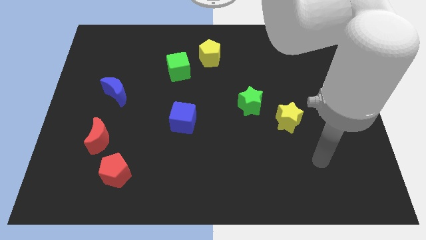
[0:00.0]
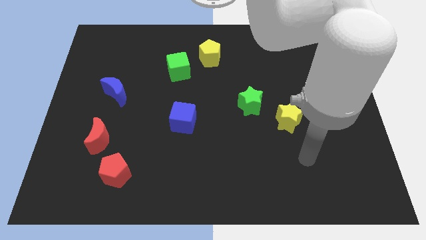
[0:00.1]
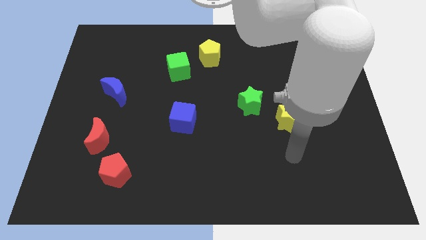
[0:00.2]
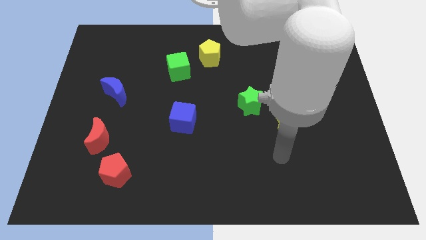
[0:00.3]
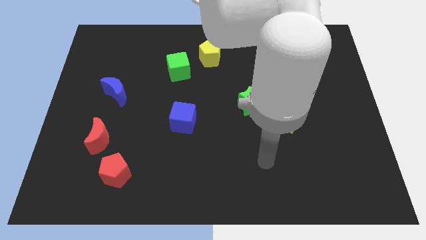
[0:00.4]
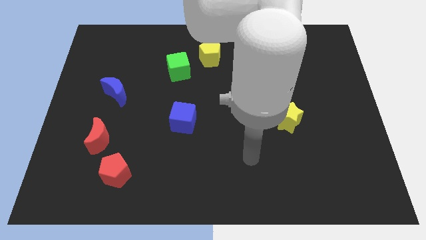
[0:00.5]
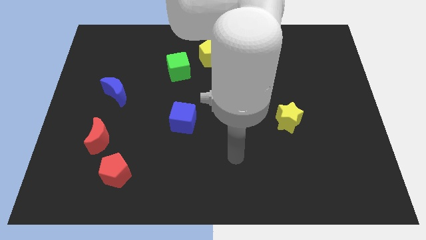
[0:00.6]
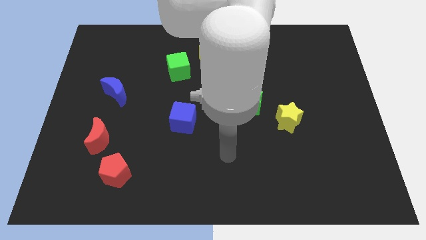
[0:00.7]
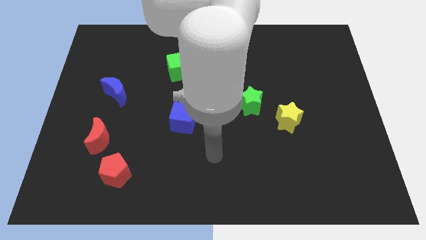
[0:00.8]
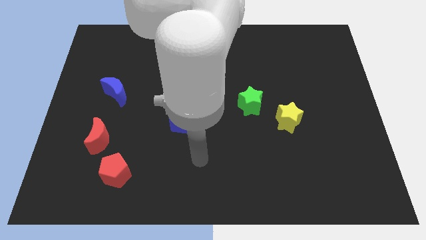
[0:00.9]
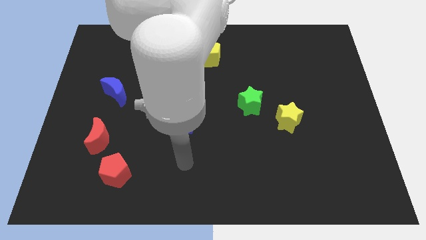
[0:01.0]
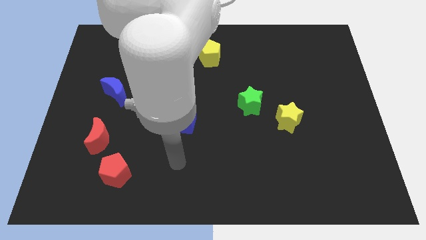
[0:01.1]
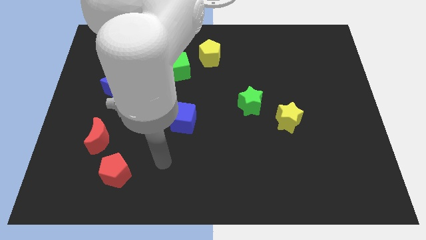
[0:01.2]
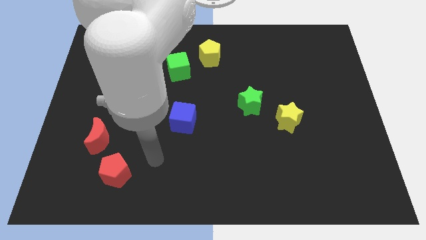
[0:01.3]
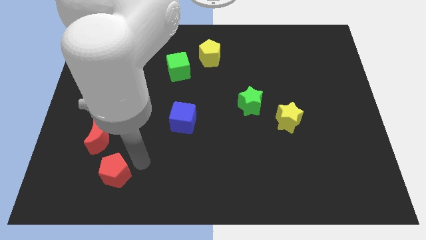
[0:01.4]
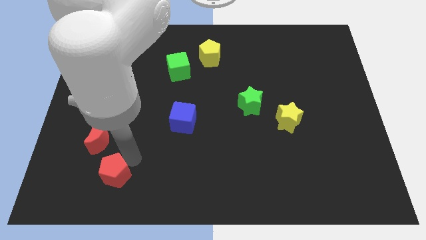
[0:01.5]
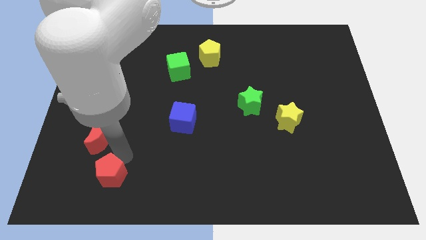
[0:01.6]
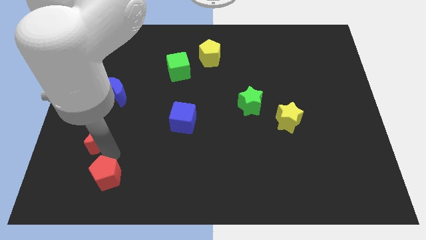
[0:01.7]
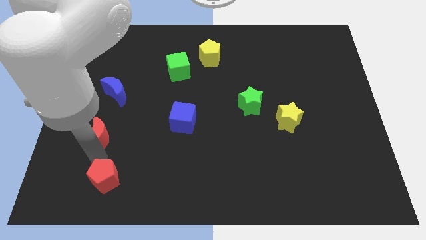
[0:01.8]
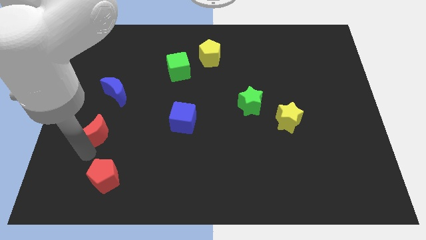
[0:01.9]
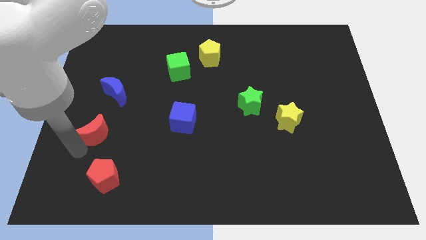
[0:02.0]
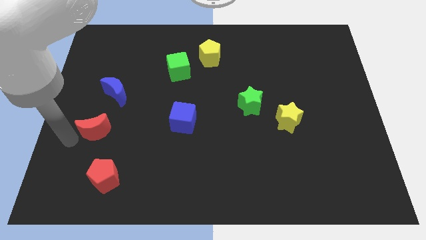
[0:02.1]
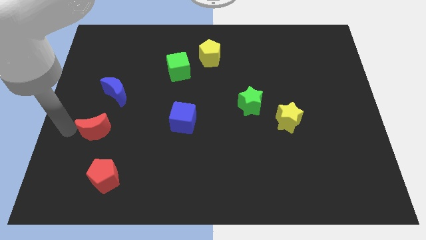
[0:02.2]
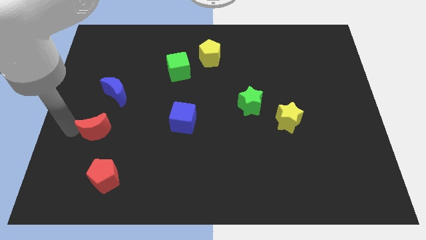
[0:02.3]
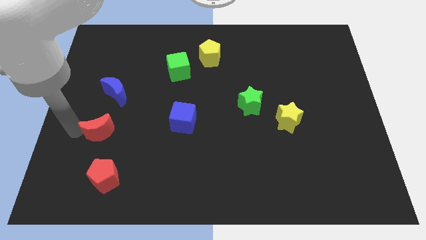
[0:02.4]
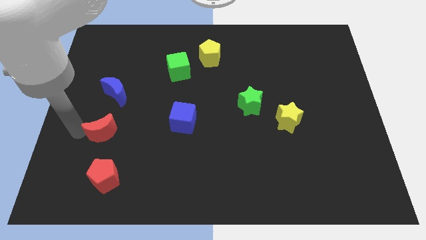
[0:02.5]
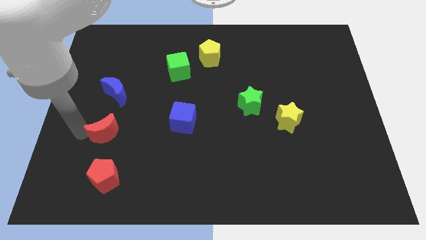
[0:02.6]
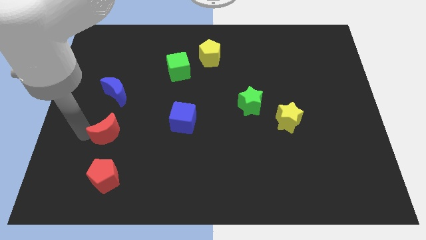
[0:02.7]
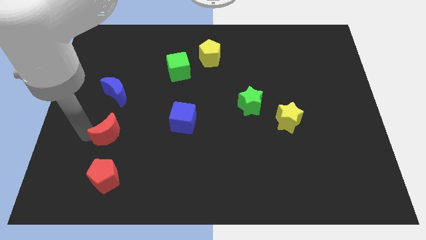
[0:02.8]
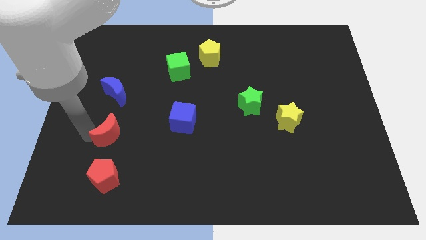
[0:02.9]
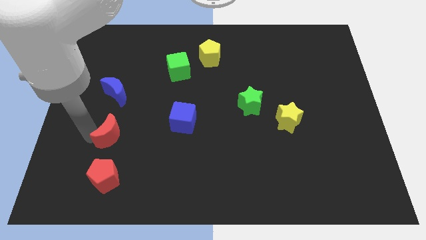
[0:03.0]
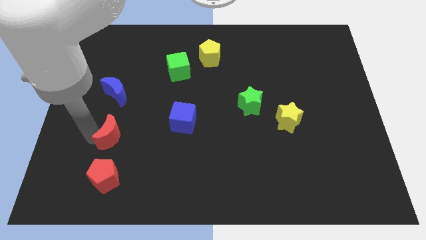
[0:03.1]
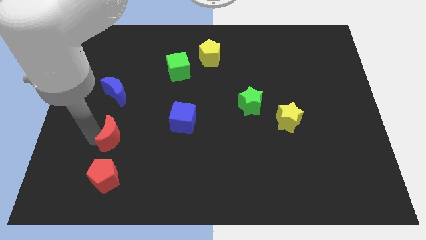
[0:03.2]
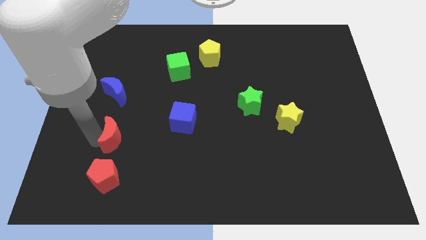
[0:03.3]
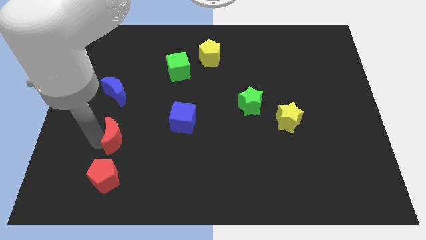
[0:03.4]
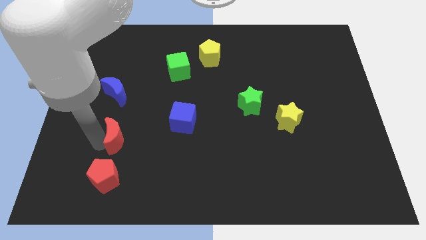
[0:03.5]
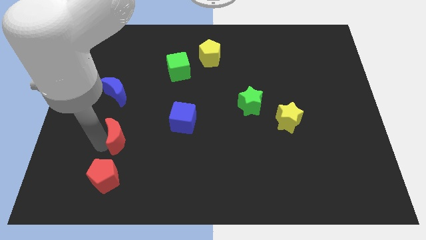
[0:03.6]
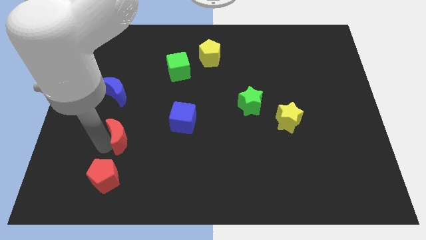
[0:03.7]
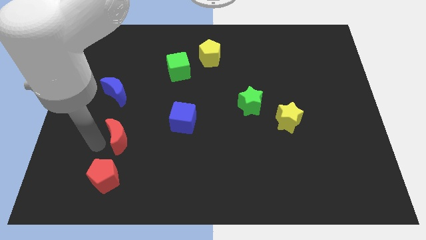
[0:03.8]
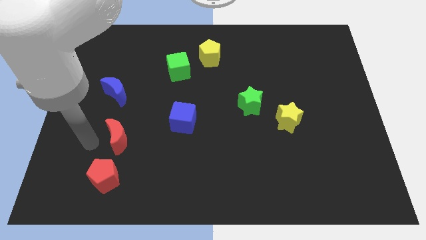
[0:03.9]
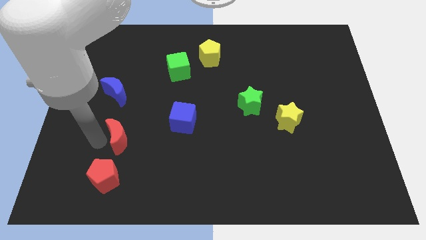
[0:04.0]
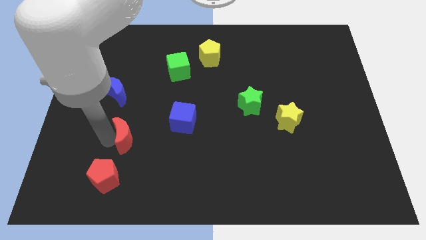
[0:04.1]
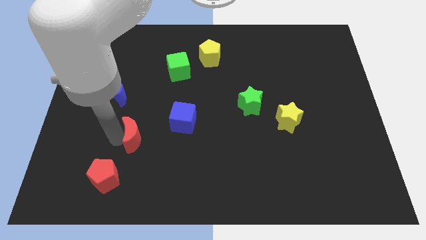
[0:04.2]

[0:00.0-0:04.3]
move the red moon a little bit to the right

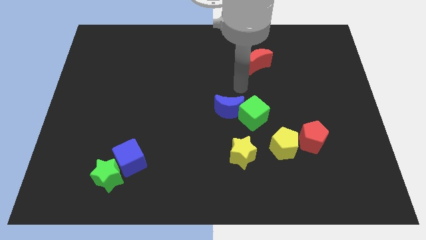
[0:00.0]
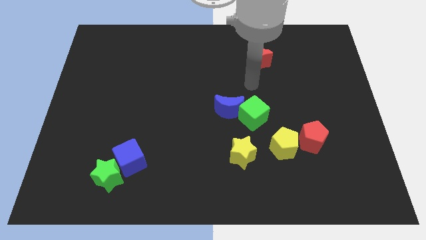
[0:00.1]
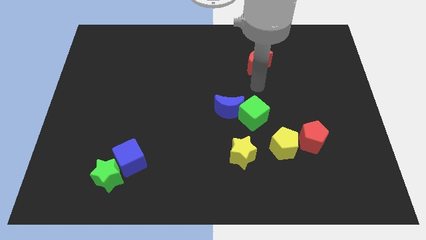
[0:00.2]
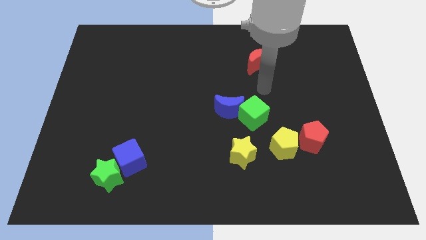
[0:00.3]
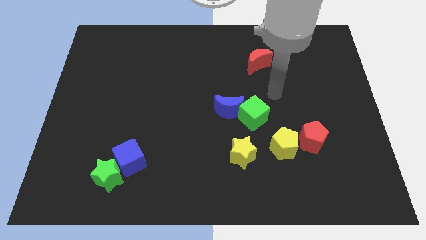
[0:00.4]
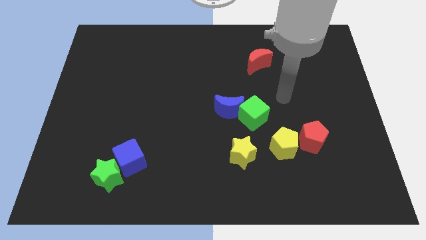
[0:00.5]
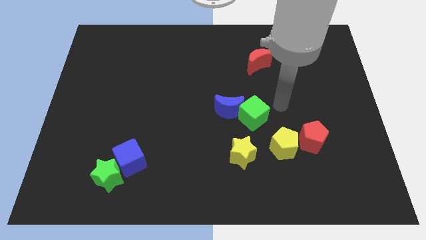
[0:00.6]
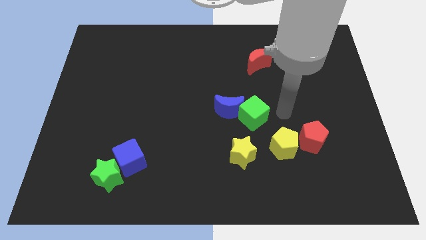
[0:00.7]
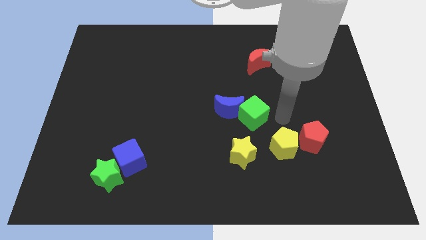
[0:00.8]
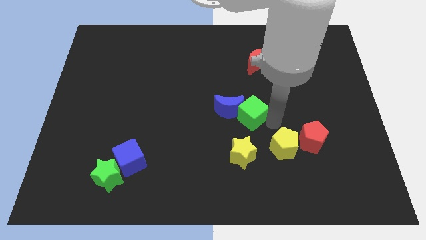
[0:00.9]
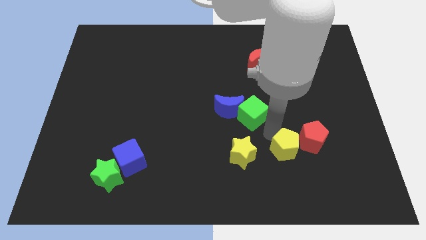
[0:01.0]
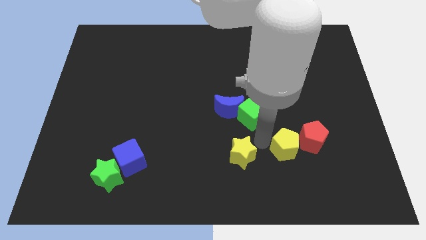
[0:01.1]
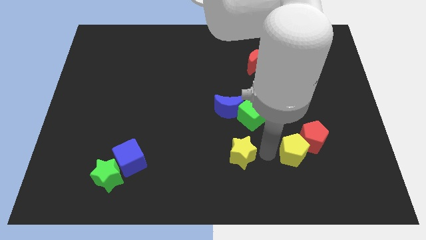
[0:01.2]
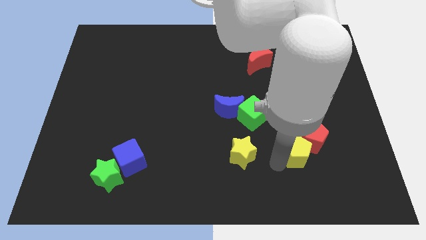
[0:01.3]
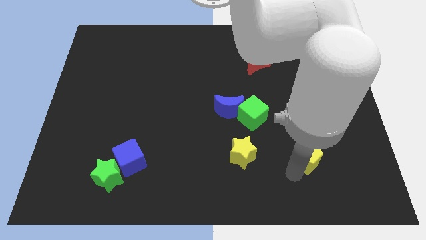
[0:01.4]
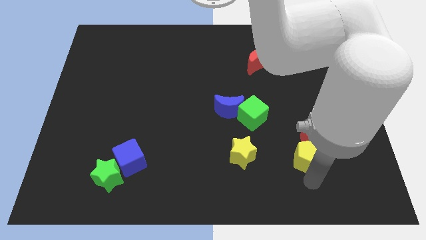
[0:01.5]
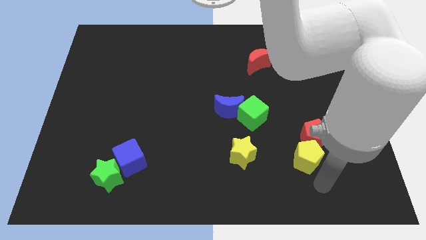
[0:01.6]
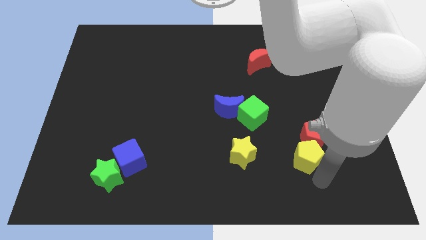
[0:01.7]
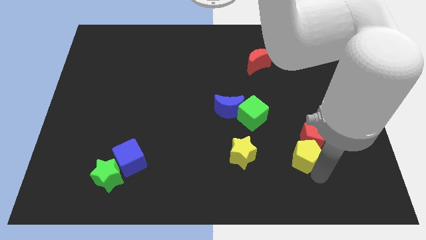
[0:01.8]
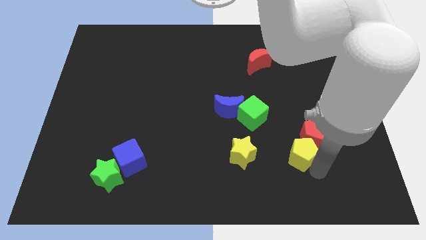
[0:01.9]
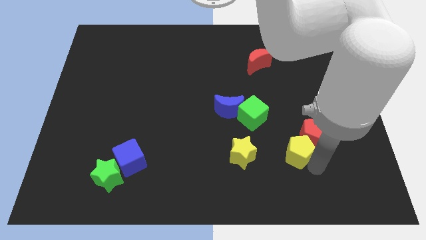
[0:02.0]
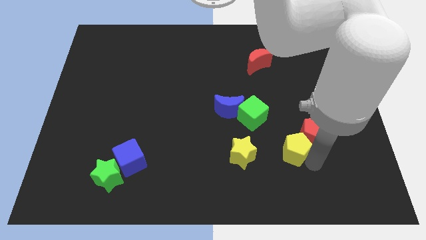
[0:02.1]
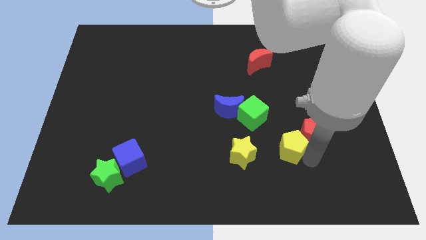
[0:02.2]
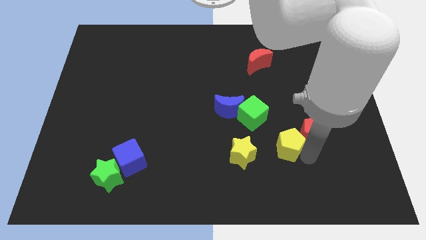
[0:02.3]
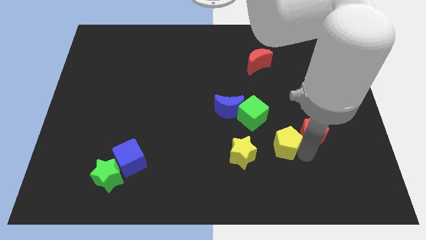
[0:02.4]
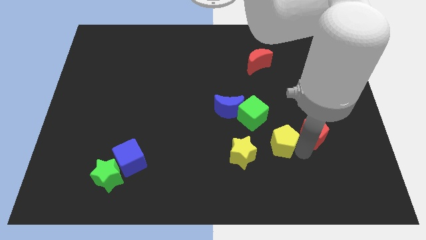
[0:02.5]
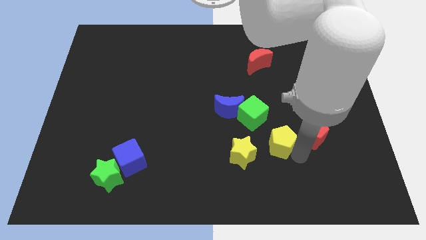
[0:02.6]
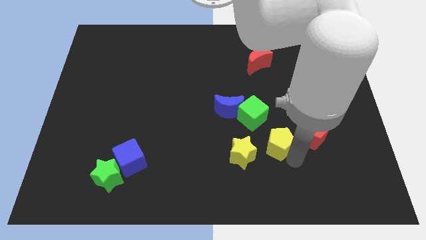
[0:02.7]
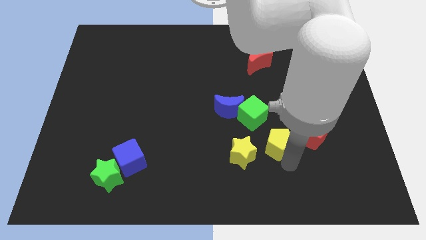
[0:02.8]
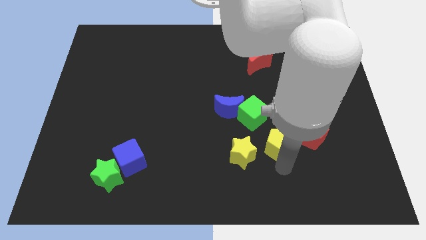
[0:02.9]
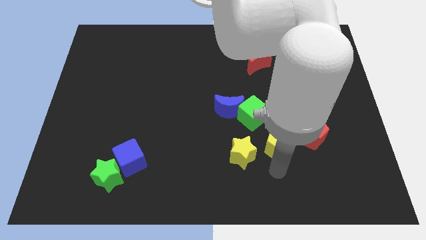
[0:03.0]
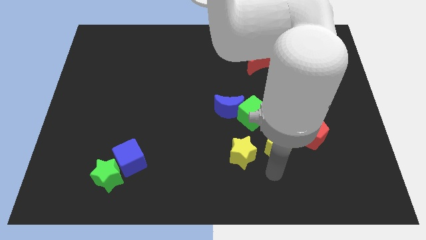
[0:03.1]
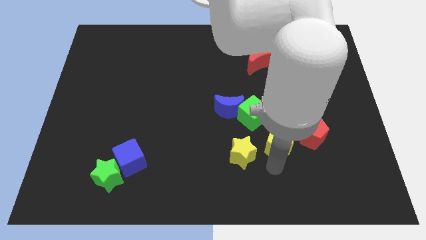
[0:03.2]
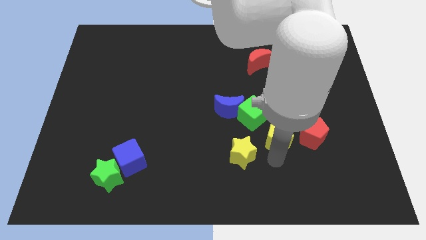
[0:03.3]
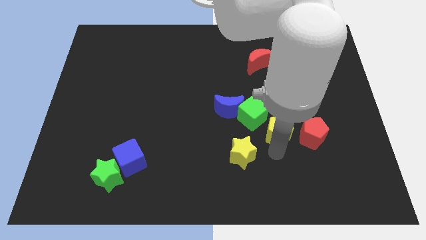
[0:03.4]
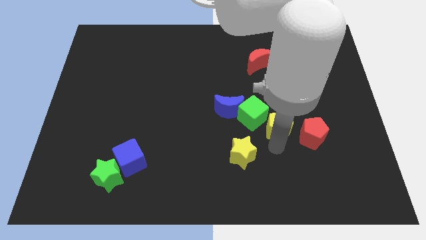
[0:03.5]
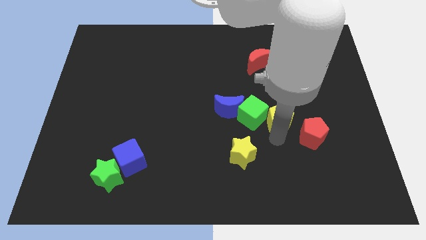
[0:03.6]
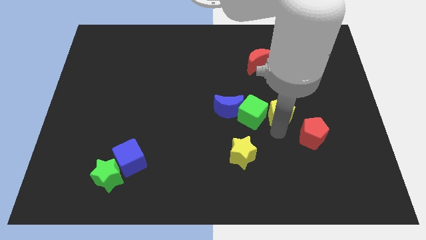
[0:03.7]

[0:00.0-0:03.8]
slightly push the yellow pentagon up
